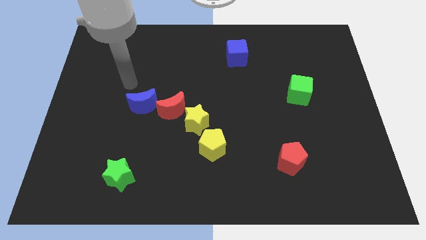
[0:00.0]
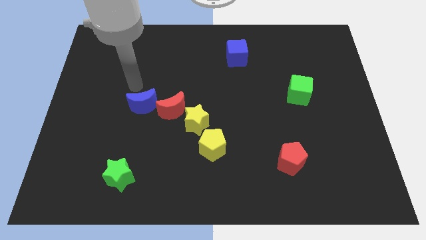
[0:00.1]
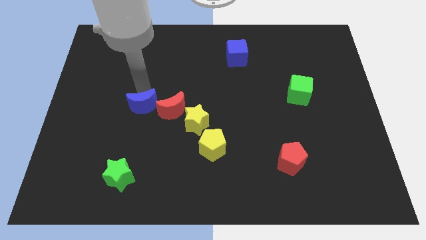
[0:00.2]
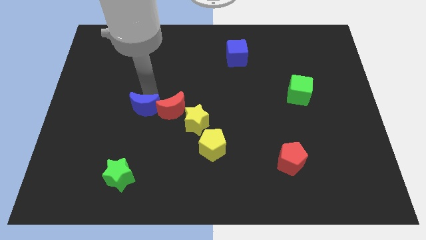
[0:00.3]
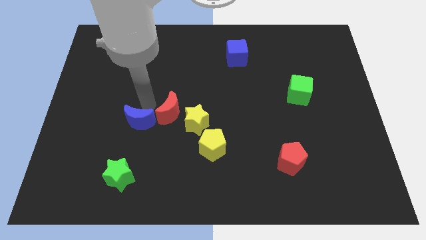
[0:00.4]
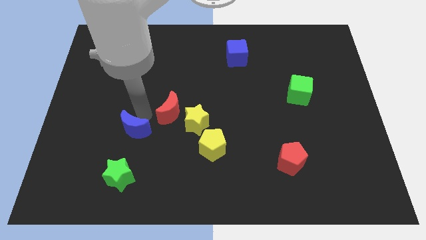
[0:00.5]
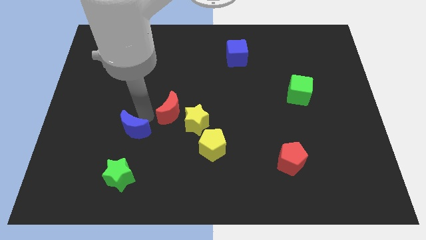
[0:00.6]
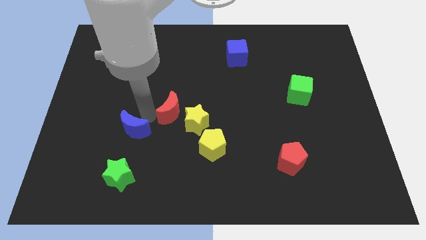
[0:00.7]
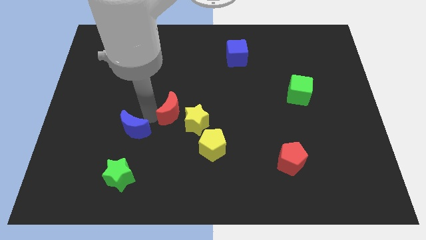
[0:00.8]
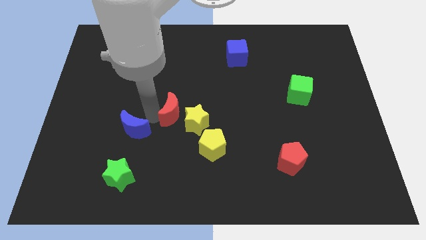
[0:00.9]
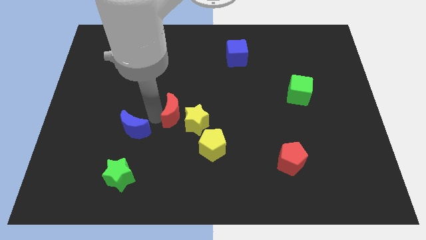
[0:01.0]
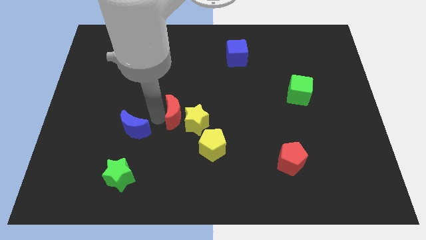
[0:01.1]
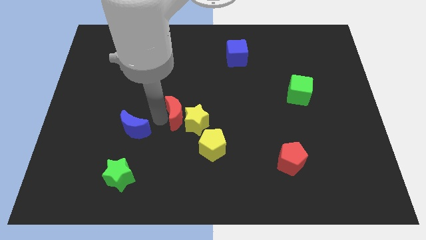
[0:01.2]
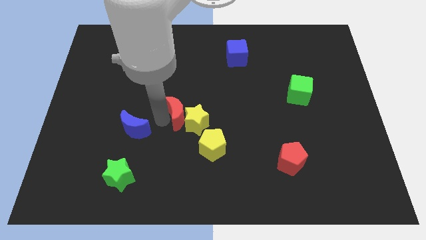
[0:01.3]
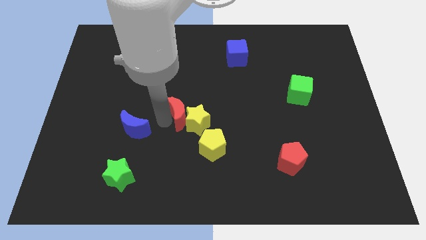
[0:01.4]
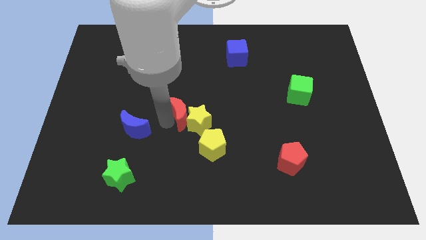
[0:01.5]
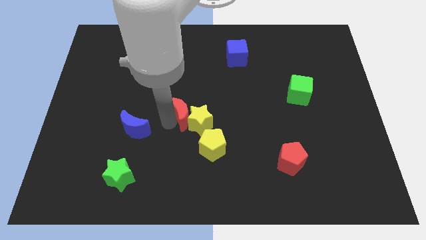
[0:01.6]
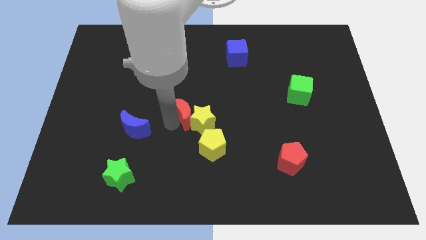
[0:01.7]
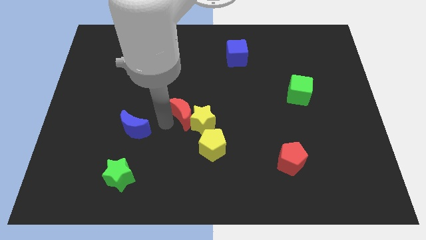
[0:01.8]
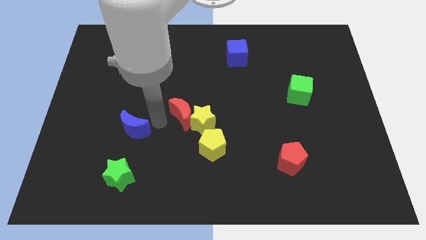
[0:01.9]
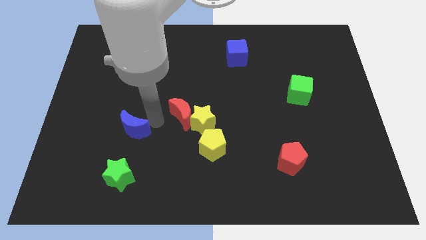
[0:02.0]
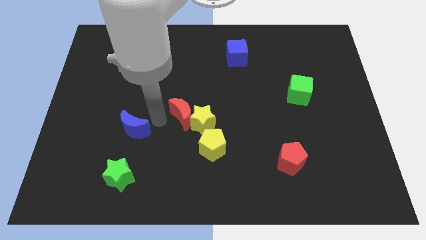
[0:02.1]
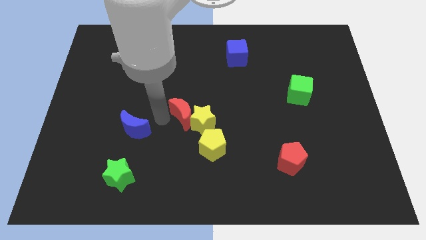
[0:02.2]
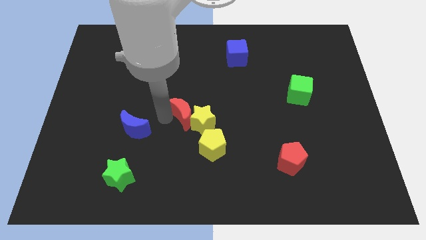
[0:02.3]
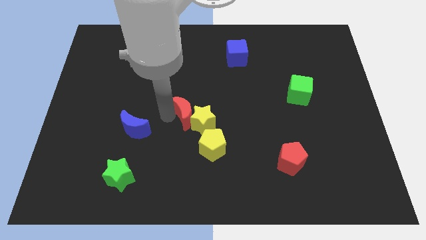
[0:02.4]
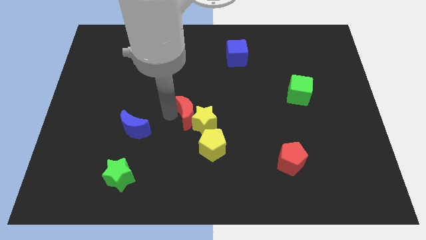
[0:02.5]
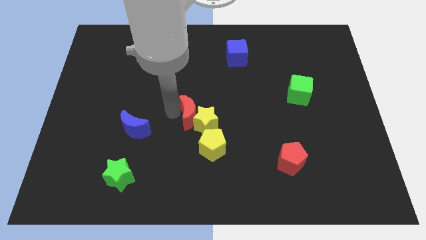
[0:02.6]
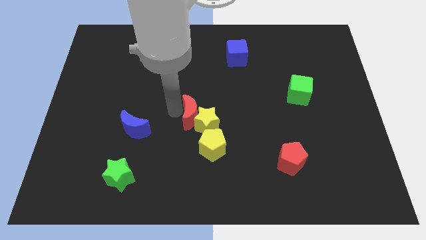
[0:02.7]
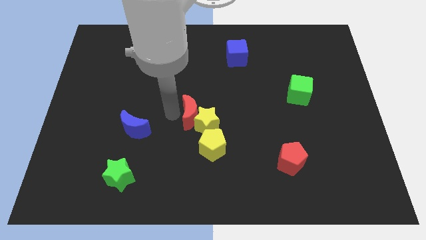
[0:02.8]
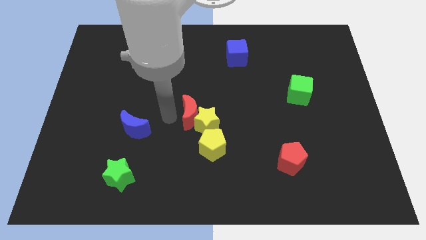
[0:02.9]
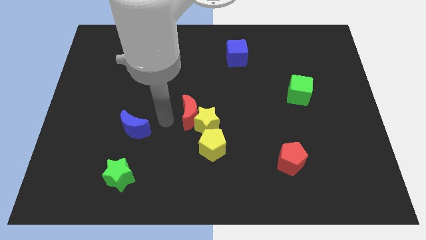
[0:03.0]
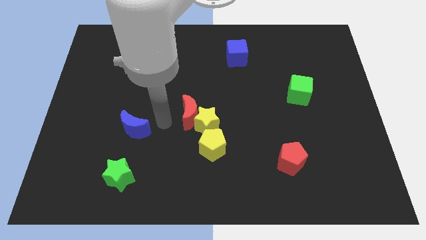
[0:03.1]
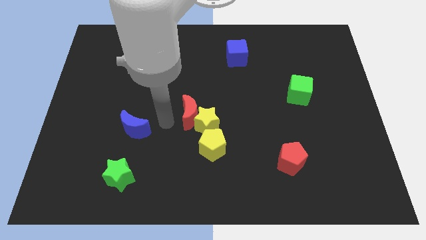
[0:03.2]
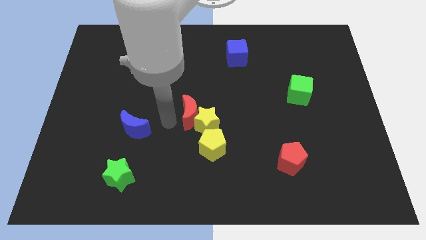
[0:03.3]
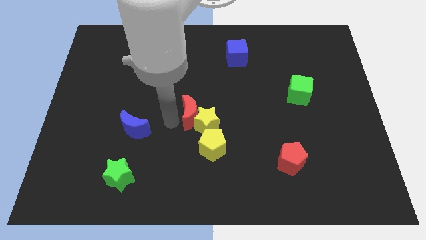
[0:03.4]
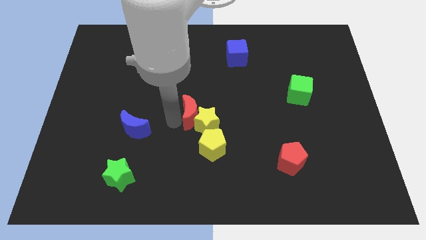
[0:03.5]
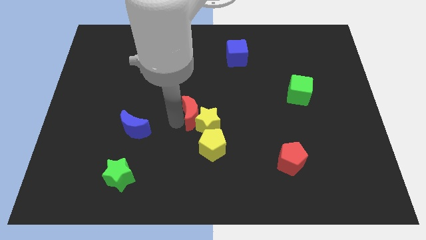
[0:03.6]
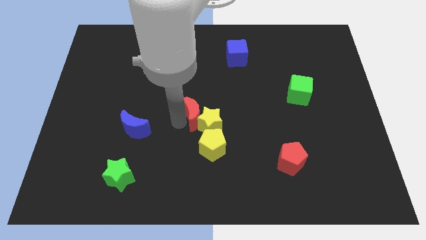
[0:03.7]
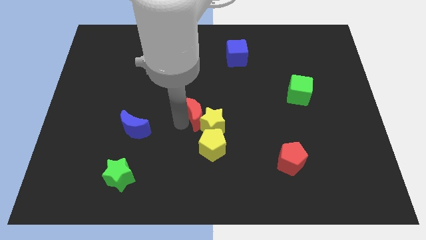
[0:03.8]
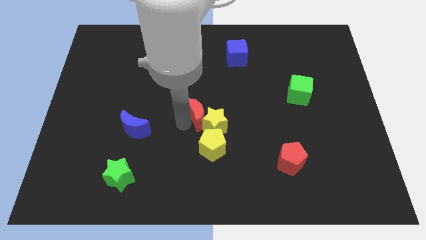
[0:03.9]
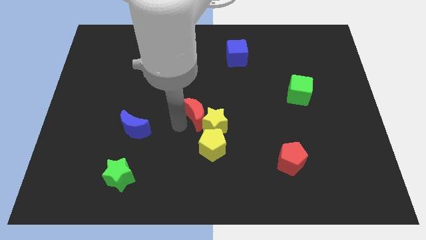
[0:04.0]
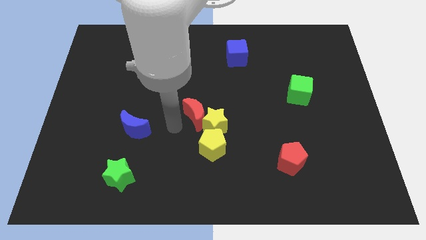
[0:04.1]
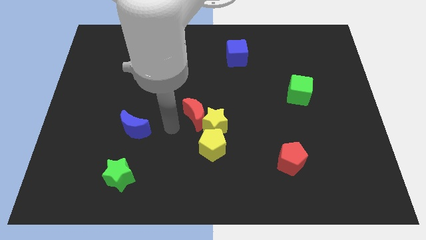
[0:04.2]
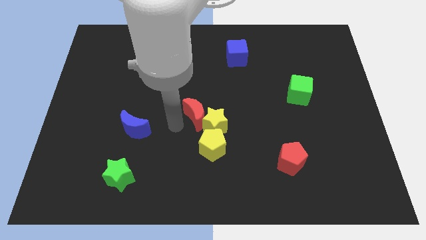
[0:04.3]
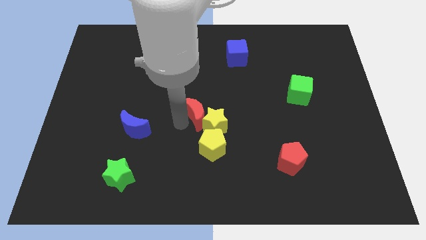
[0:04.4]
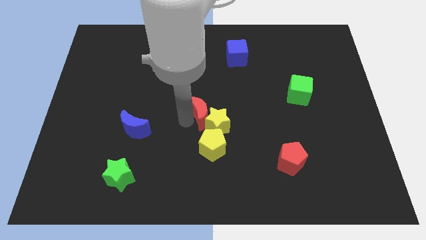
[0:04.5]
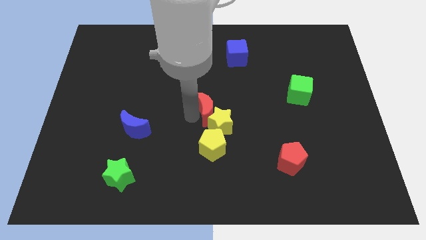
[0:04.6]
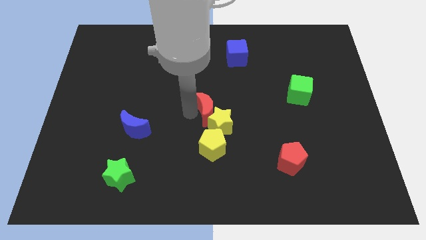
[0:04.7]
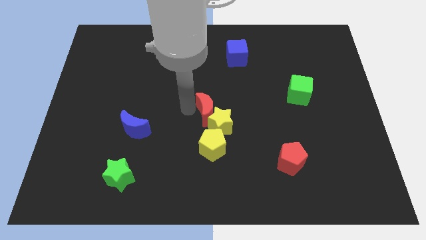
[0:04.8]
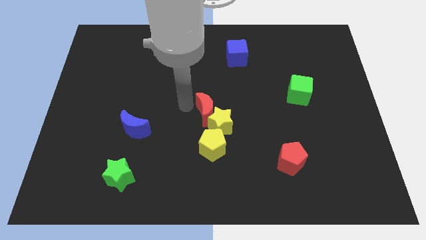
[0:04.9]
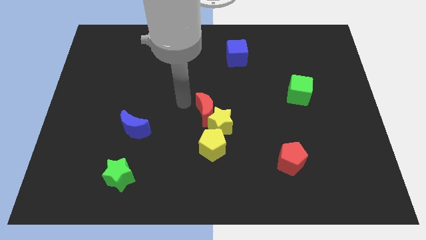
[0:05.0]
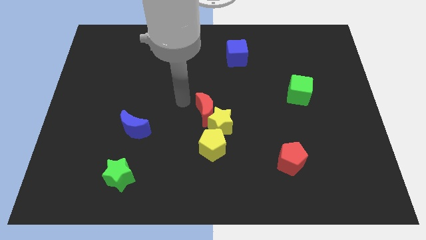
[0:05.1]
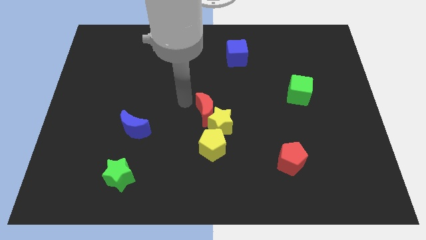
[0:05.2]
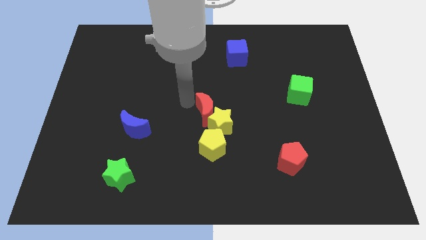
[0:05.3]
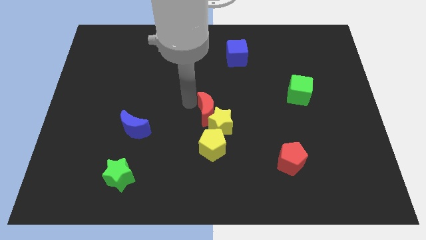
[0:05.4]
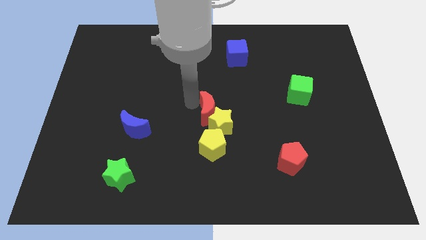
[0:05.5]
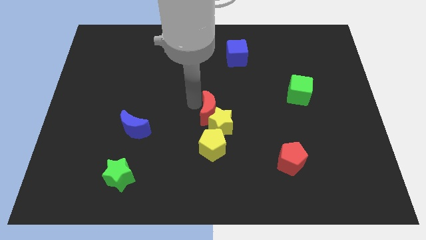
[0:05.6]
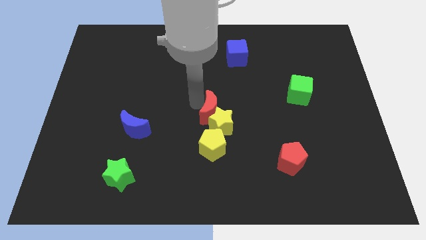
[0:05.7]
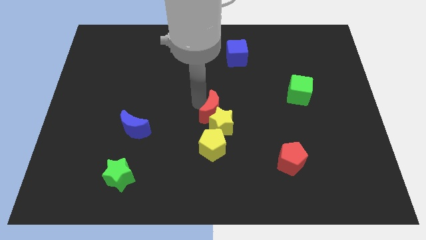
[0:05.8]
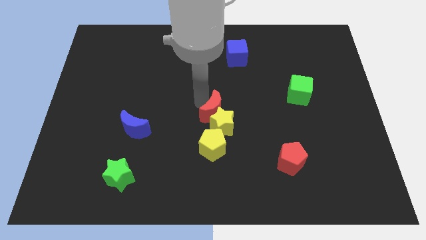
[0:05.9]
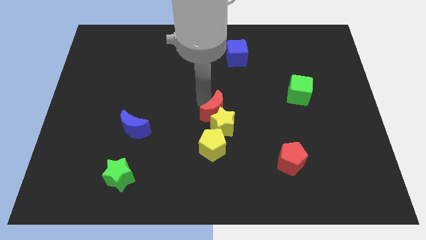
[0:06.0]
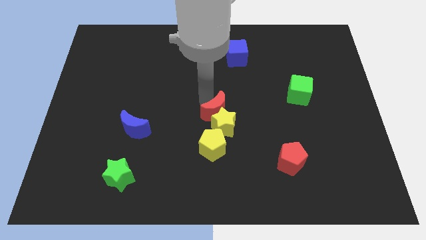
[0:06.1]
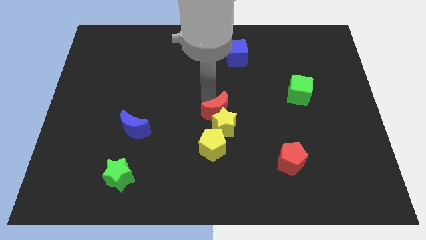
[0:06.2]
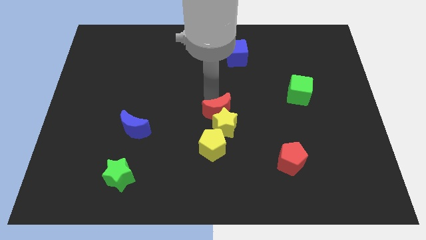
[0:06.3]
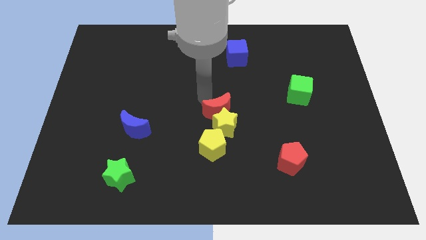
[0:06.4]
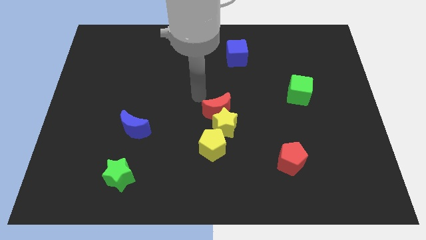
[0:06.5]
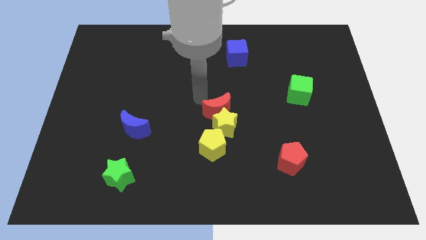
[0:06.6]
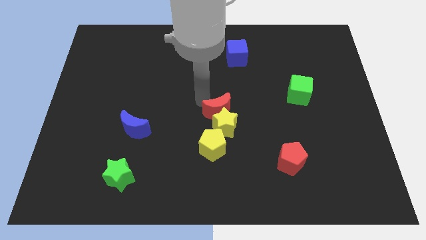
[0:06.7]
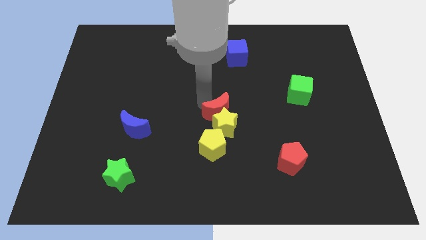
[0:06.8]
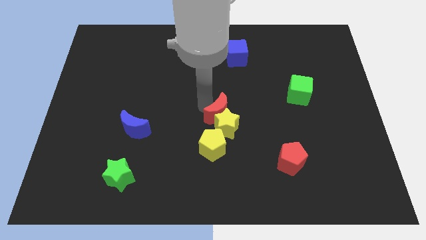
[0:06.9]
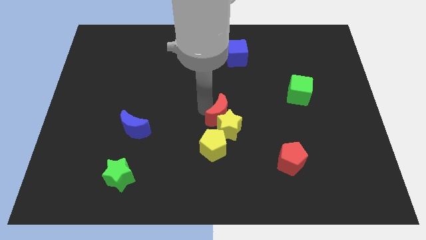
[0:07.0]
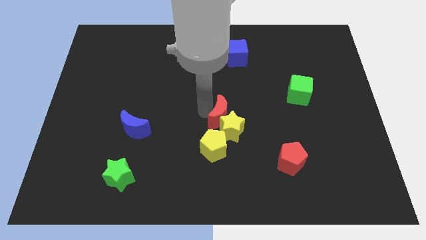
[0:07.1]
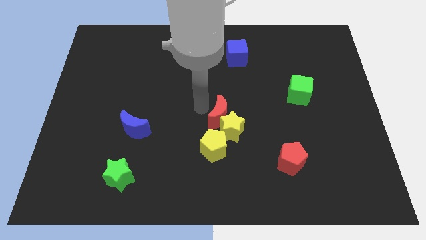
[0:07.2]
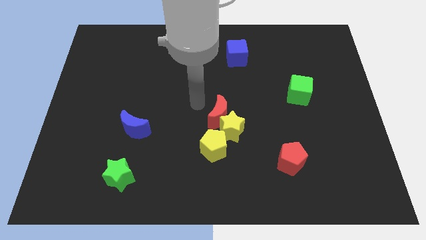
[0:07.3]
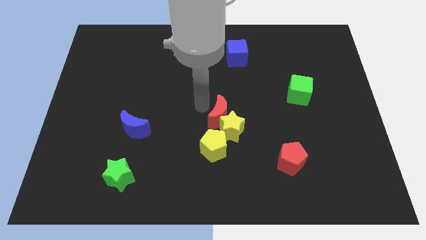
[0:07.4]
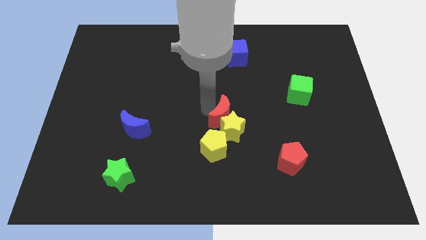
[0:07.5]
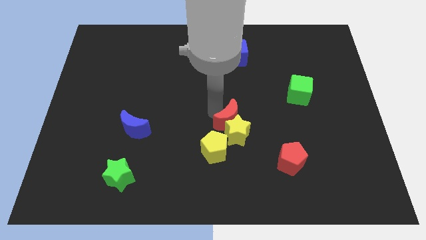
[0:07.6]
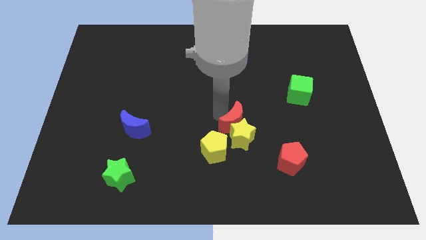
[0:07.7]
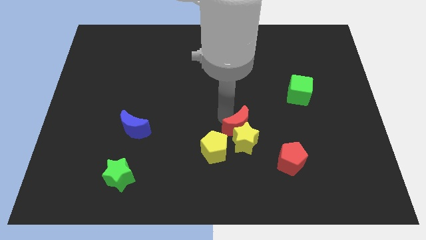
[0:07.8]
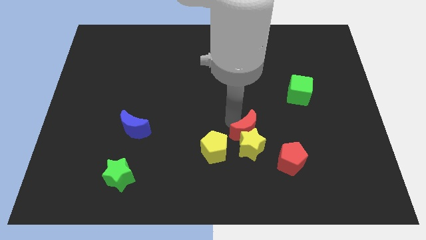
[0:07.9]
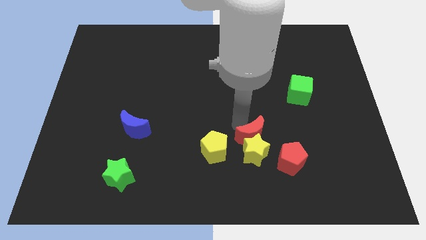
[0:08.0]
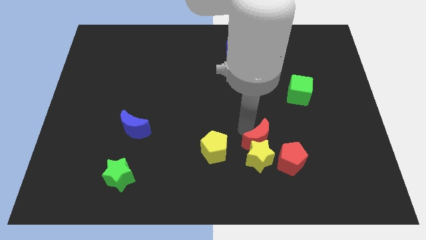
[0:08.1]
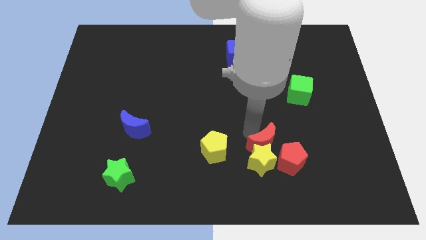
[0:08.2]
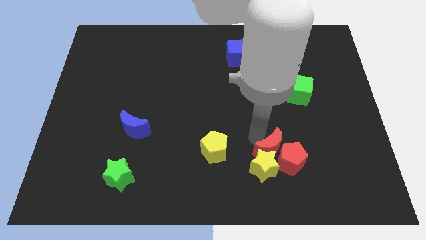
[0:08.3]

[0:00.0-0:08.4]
put the red moon to the red pentagon
